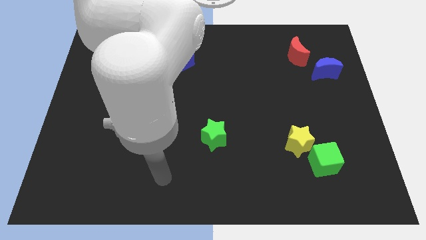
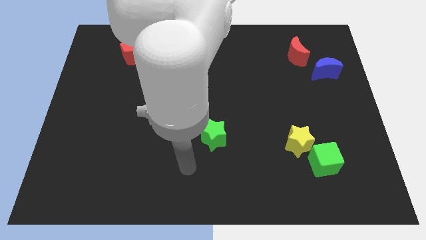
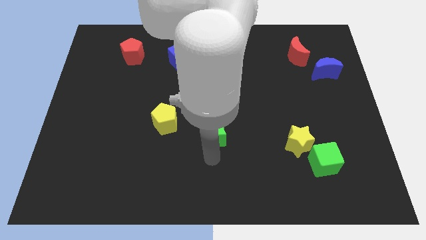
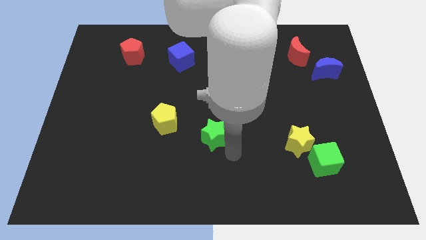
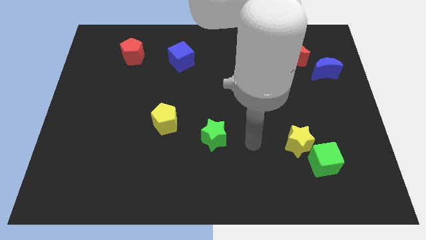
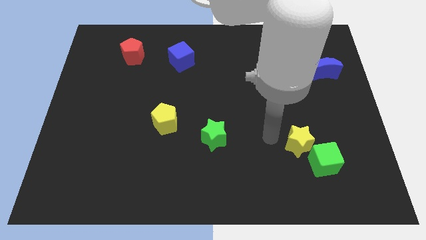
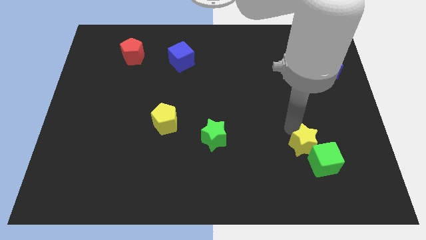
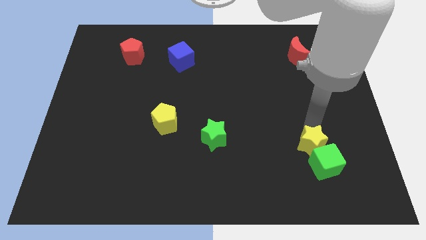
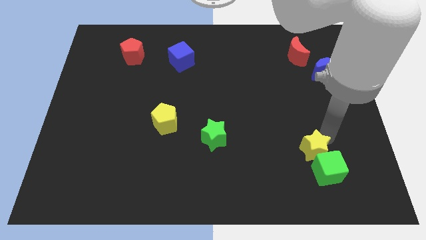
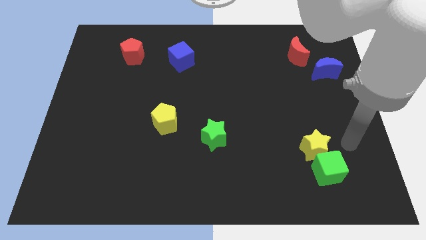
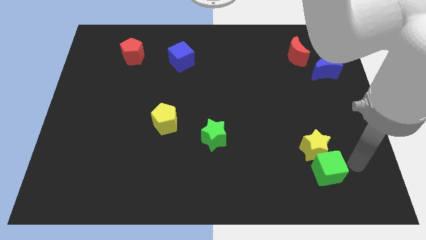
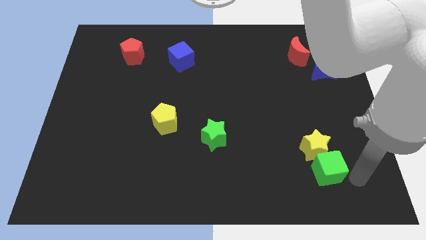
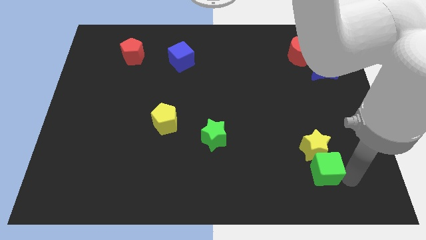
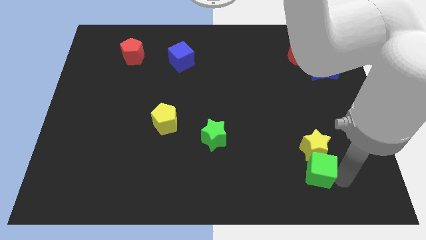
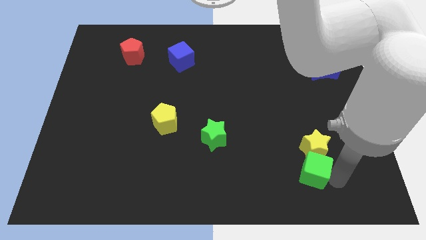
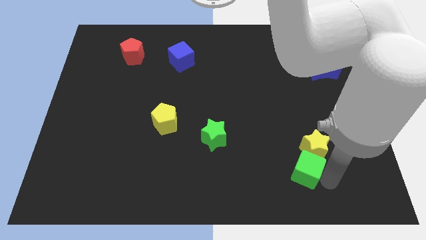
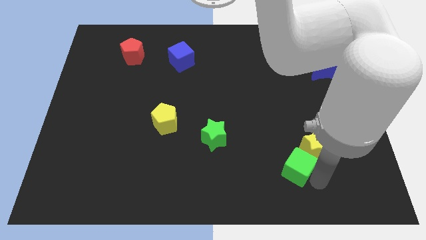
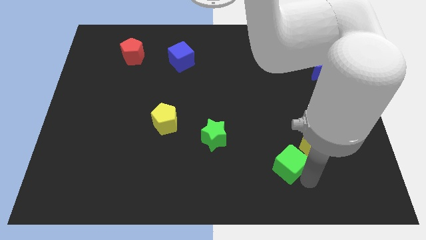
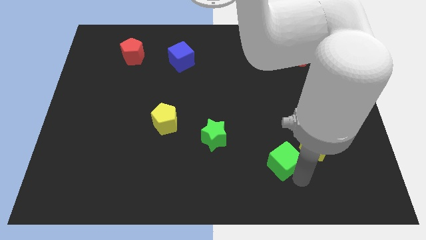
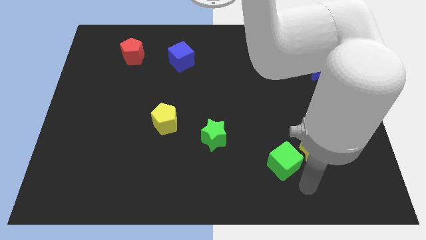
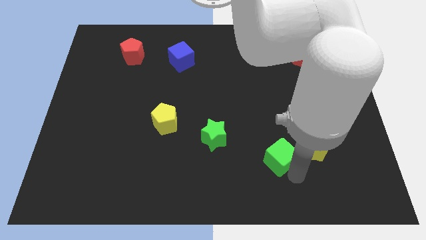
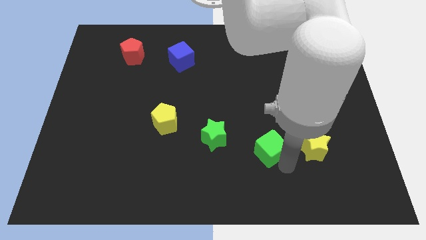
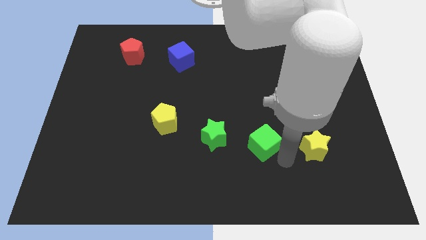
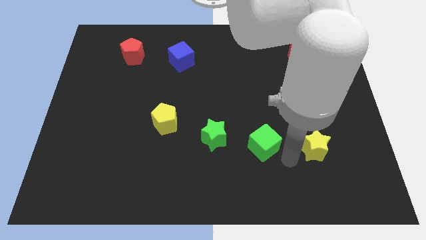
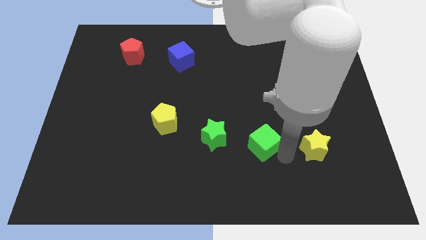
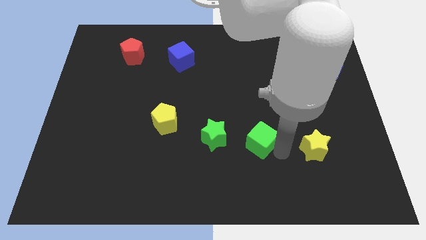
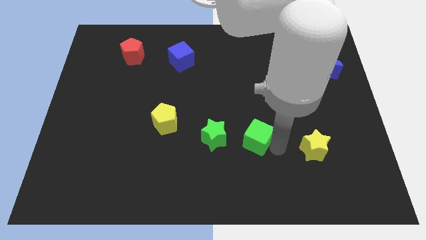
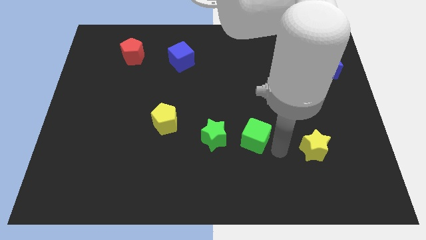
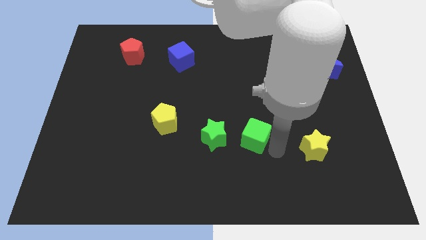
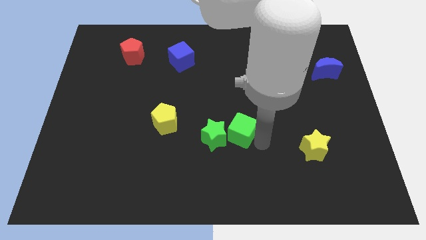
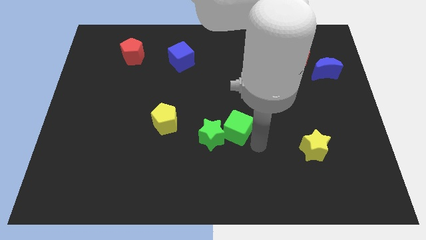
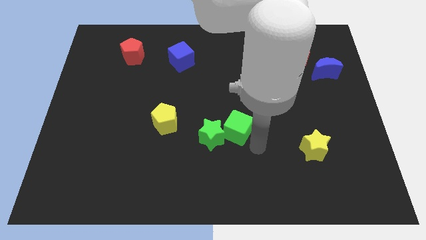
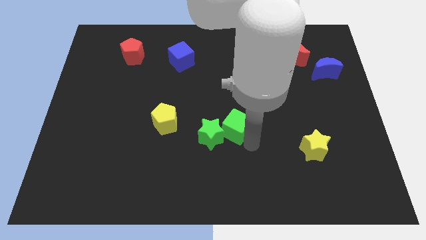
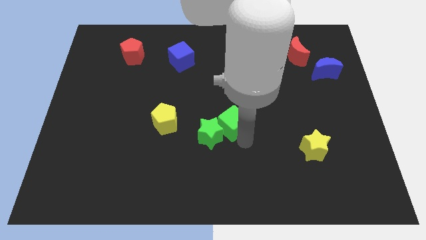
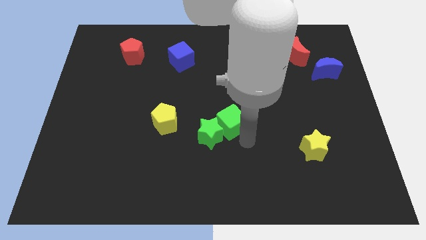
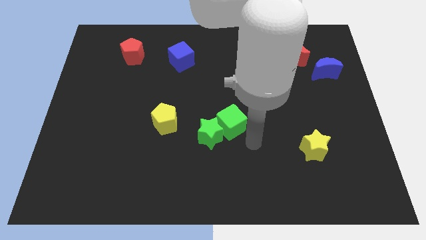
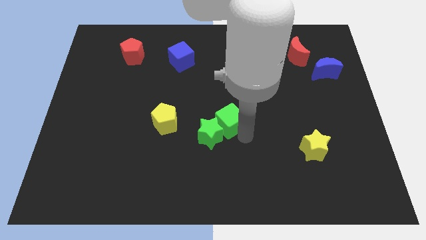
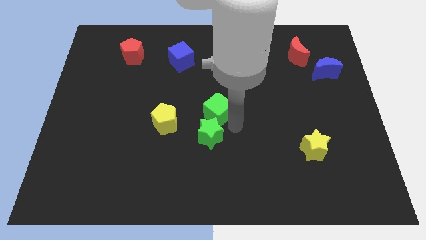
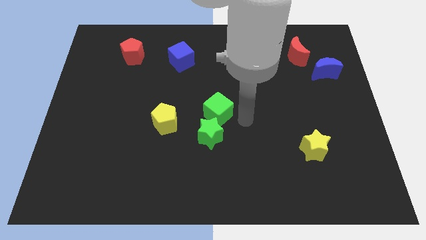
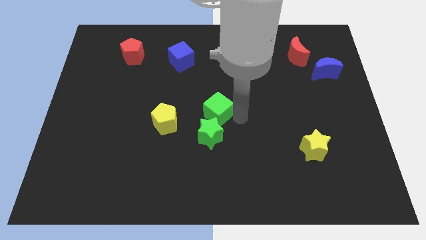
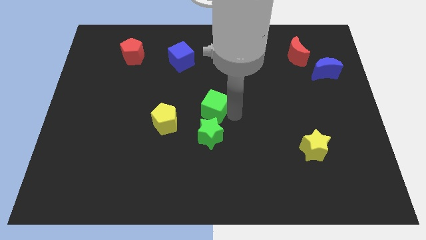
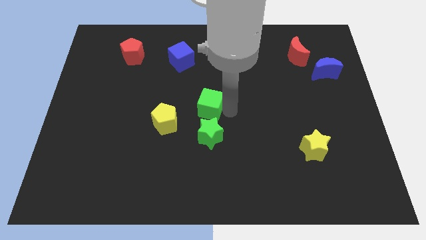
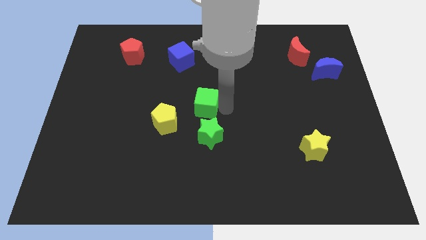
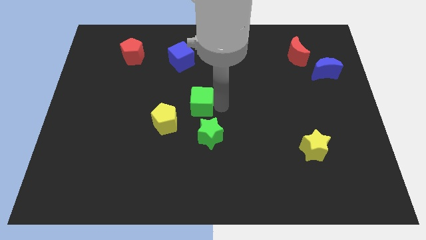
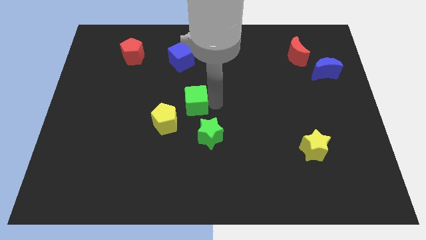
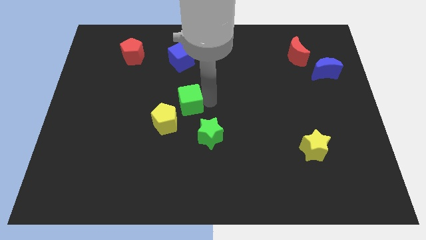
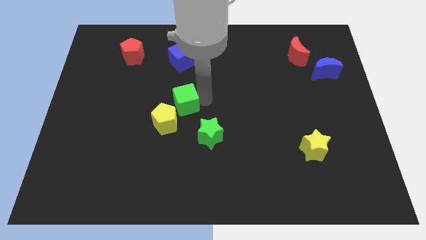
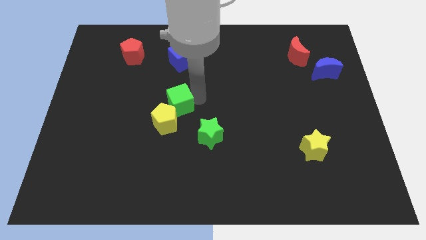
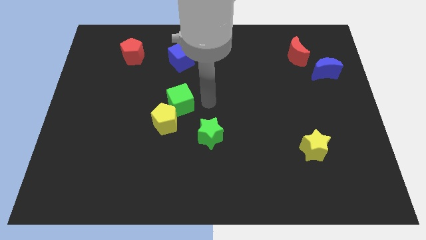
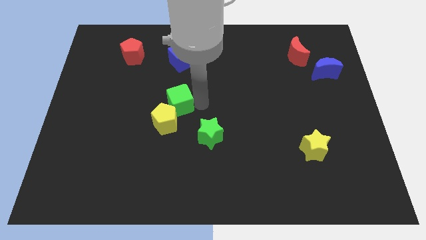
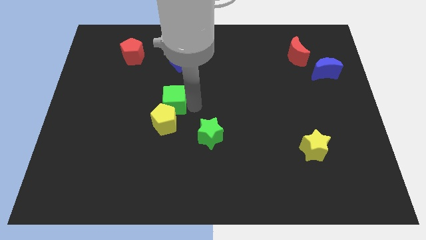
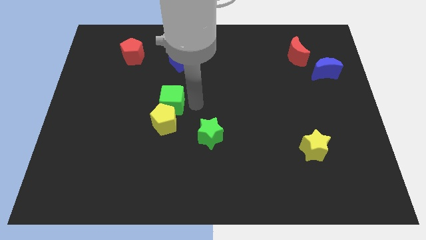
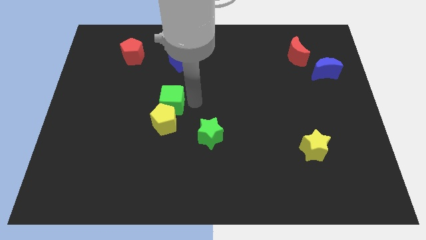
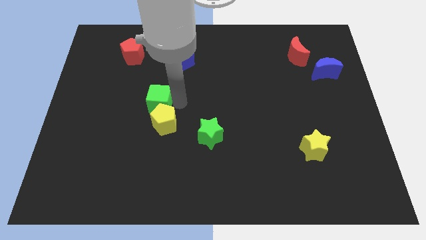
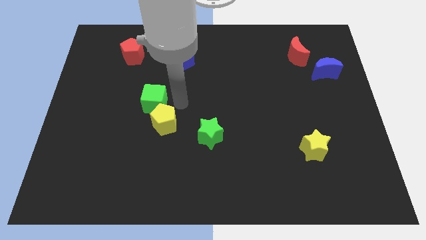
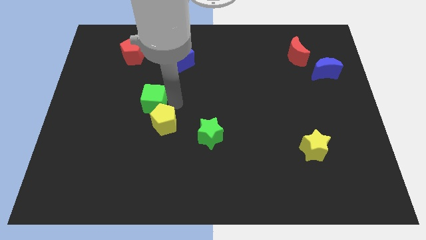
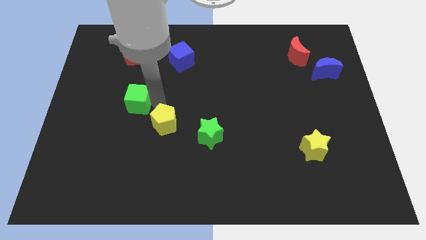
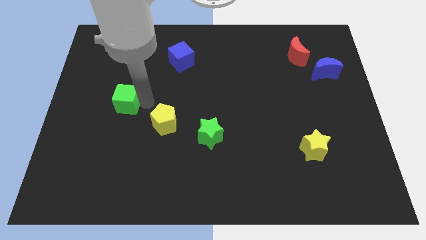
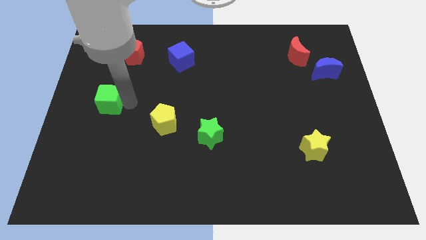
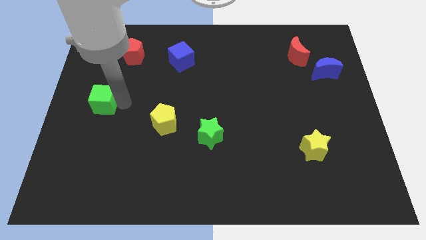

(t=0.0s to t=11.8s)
push the green cube to the center left
